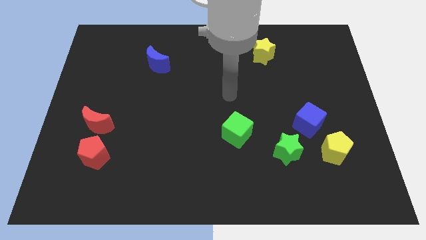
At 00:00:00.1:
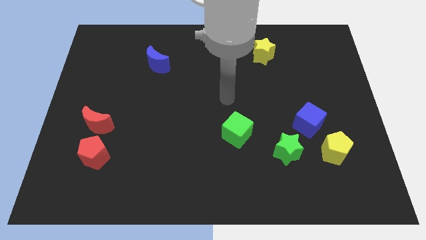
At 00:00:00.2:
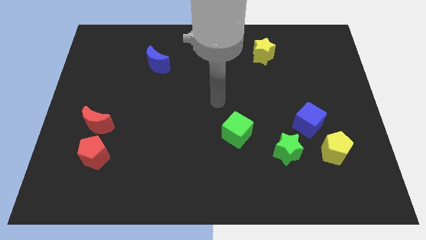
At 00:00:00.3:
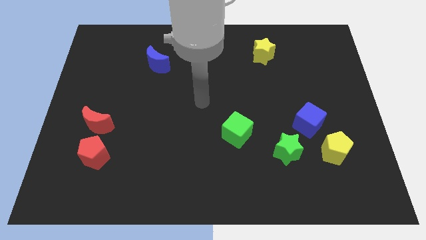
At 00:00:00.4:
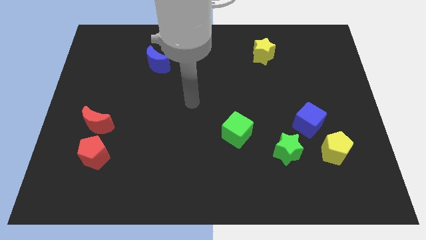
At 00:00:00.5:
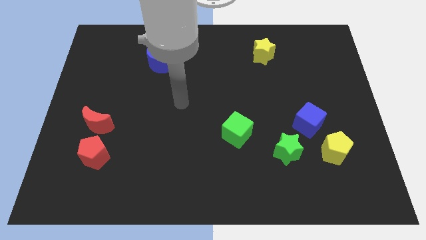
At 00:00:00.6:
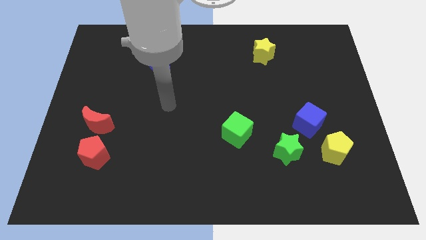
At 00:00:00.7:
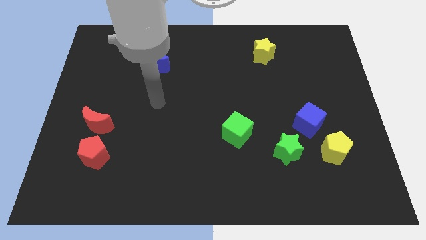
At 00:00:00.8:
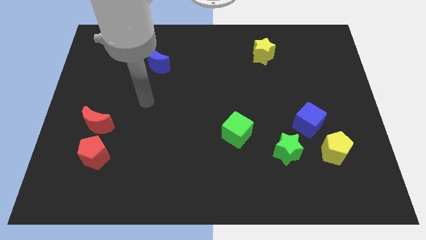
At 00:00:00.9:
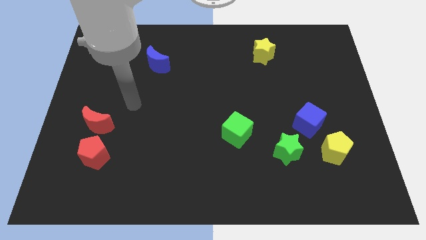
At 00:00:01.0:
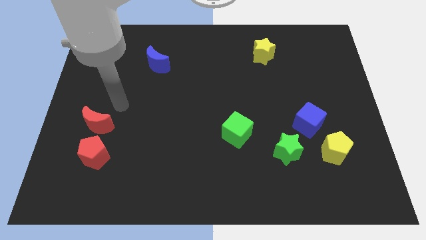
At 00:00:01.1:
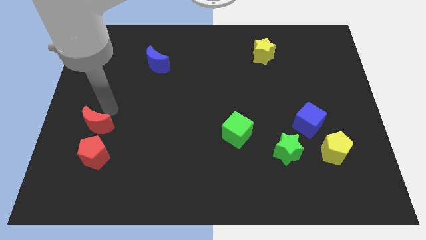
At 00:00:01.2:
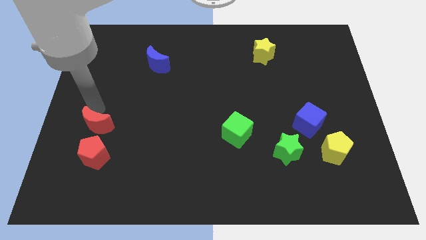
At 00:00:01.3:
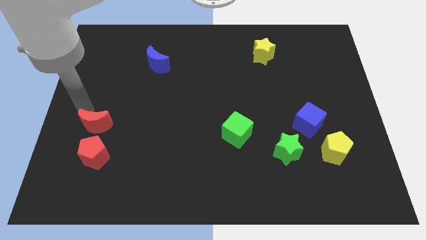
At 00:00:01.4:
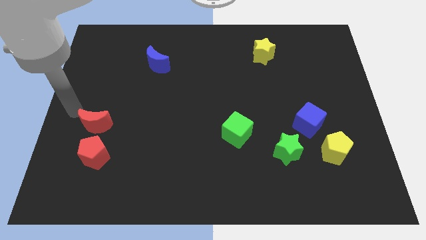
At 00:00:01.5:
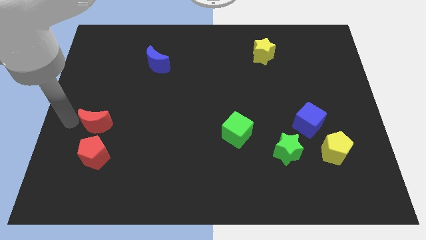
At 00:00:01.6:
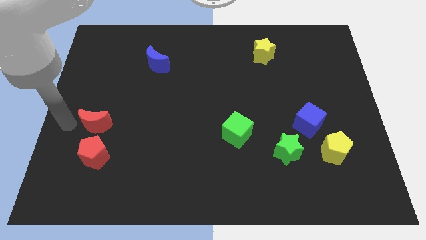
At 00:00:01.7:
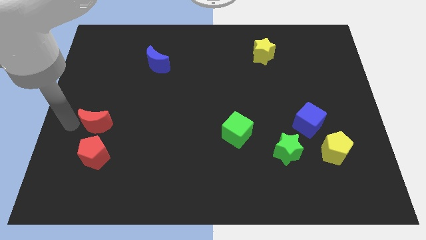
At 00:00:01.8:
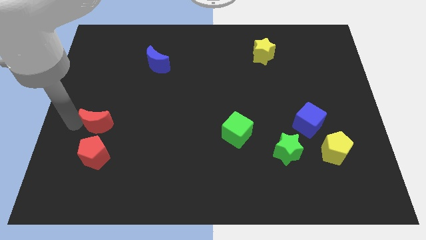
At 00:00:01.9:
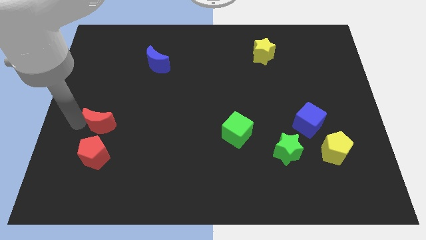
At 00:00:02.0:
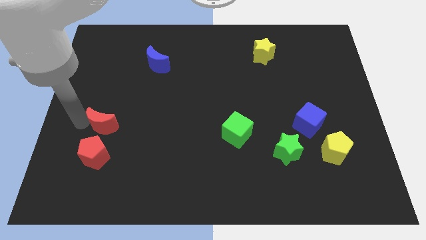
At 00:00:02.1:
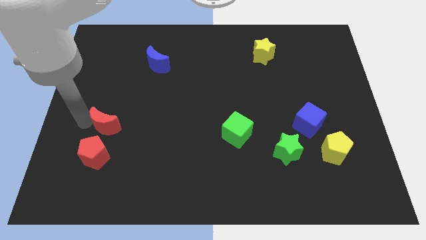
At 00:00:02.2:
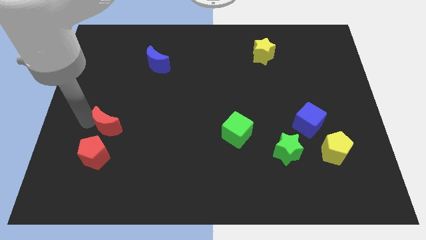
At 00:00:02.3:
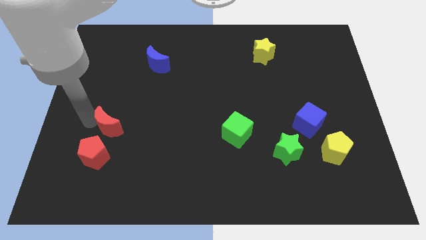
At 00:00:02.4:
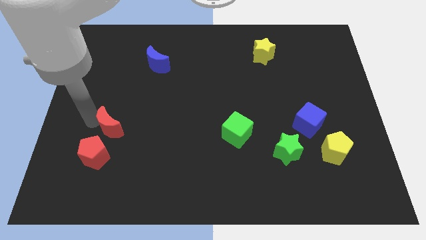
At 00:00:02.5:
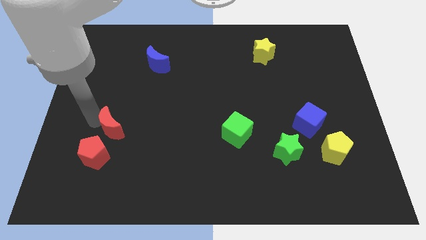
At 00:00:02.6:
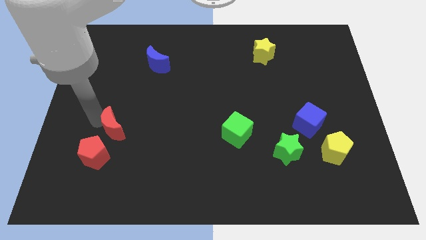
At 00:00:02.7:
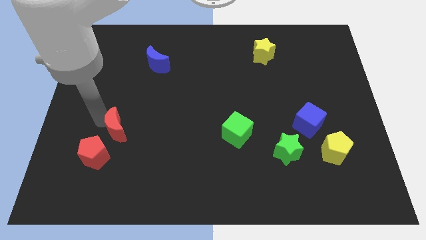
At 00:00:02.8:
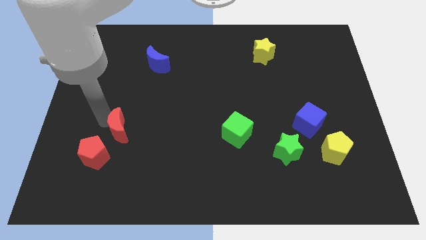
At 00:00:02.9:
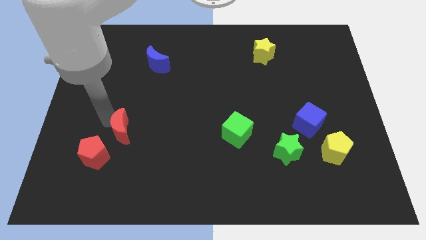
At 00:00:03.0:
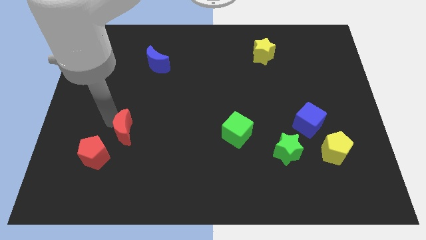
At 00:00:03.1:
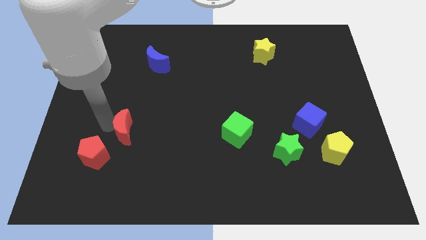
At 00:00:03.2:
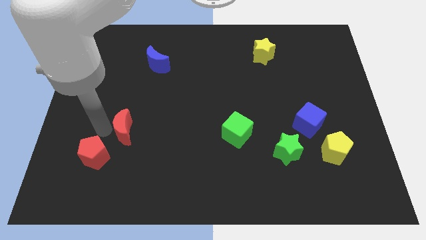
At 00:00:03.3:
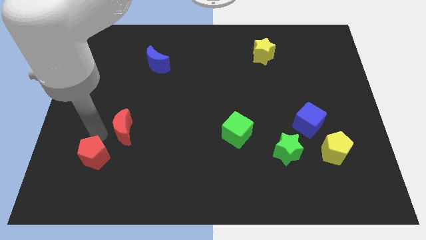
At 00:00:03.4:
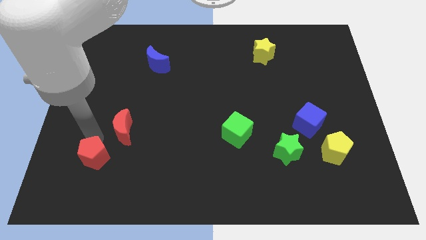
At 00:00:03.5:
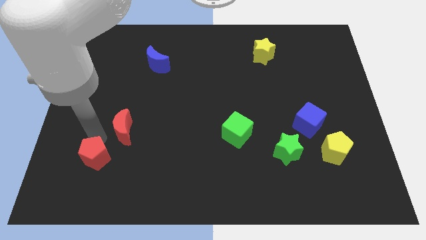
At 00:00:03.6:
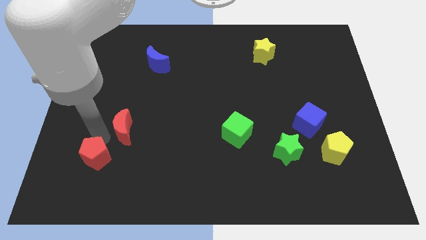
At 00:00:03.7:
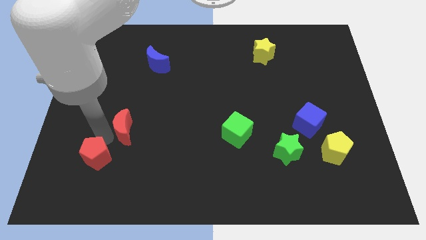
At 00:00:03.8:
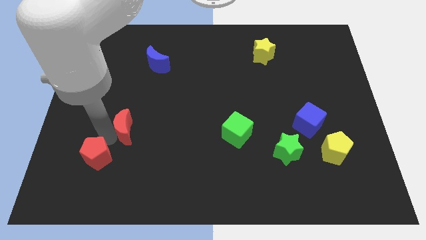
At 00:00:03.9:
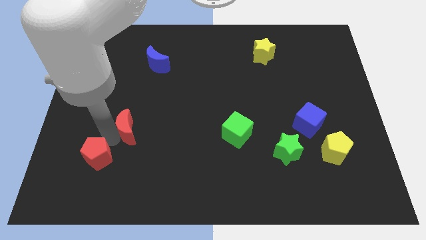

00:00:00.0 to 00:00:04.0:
slide the red moon to the right a little bit

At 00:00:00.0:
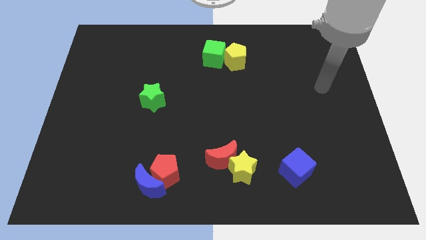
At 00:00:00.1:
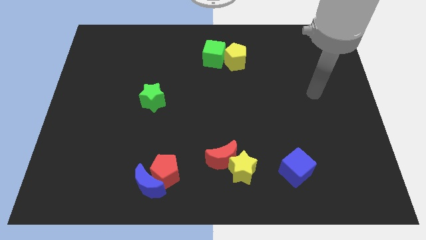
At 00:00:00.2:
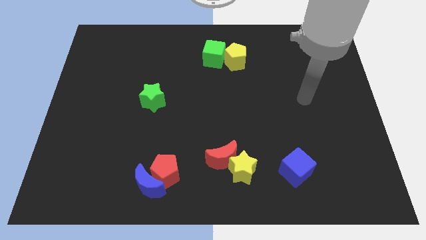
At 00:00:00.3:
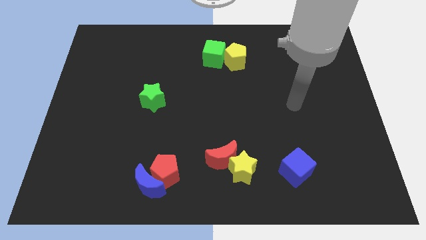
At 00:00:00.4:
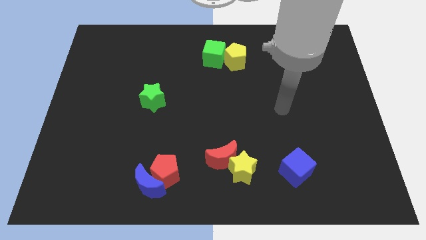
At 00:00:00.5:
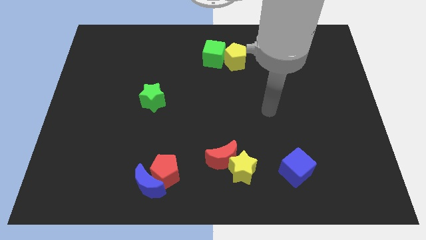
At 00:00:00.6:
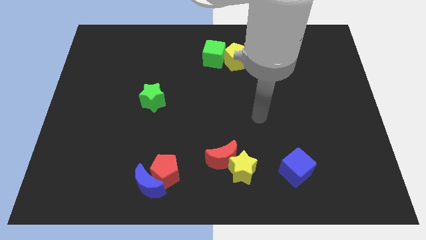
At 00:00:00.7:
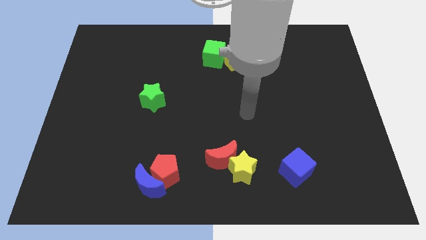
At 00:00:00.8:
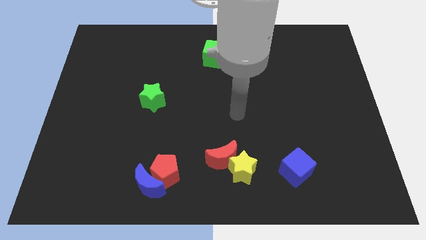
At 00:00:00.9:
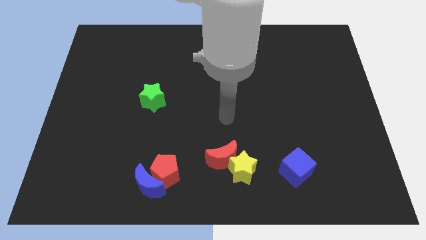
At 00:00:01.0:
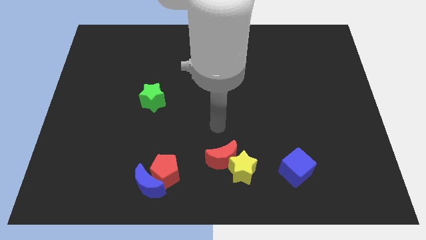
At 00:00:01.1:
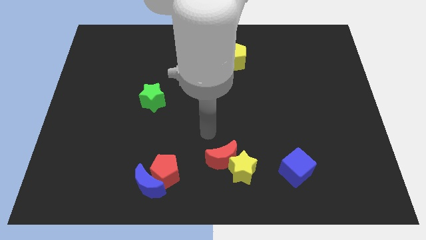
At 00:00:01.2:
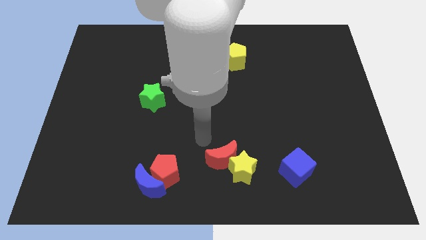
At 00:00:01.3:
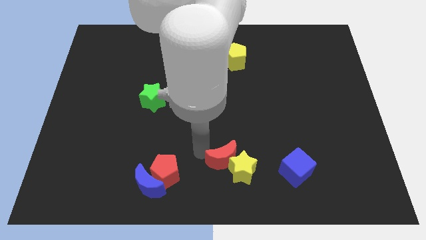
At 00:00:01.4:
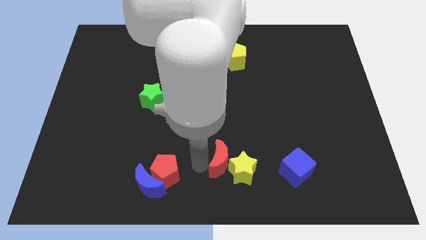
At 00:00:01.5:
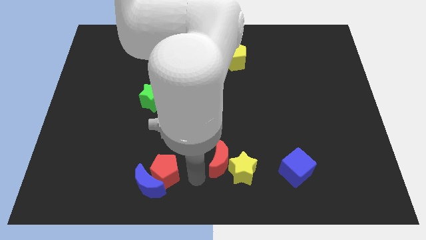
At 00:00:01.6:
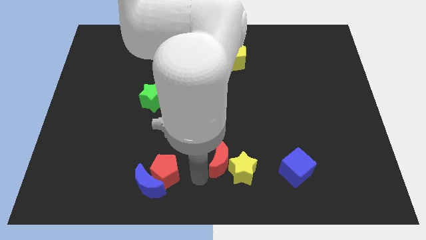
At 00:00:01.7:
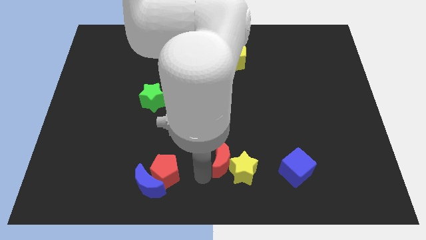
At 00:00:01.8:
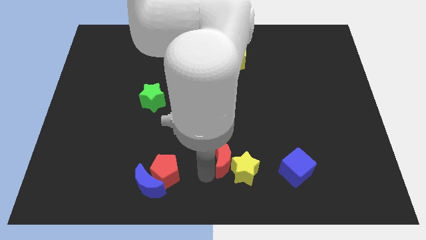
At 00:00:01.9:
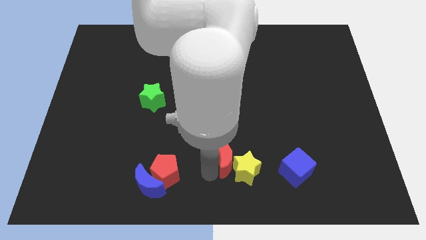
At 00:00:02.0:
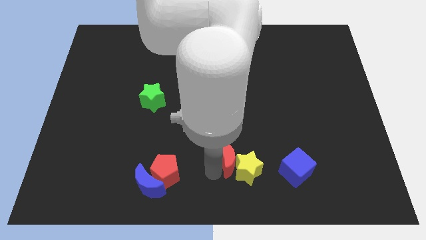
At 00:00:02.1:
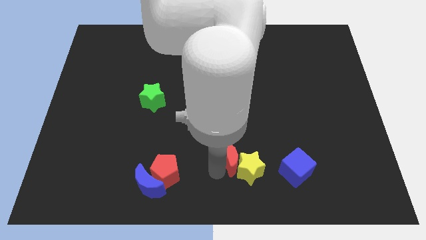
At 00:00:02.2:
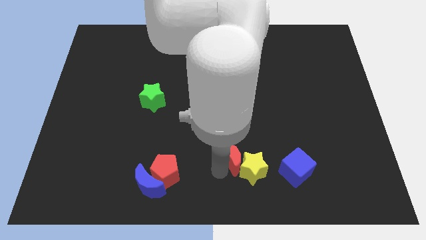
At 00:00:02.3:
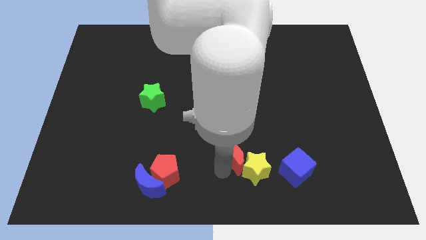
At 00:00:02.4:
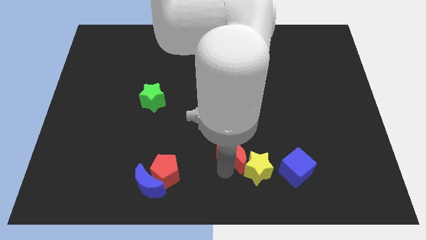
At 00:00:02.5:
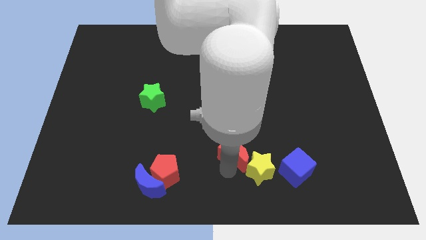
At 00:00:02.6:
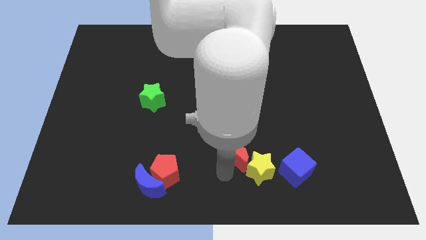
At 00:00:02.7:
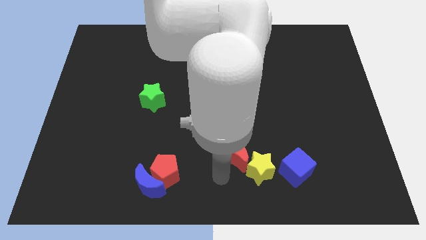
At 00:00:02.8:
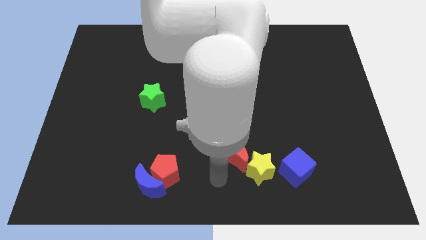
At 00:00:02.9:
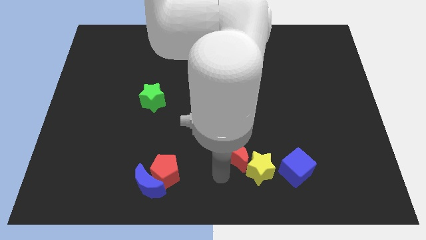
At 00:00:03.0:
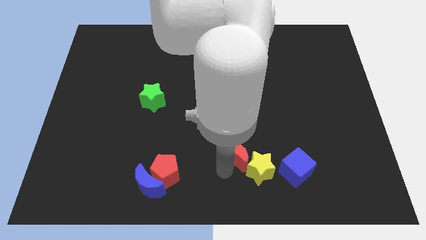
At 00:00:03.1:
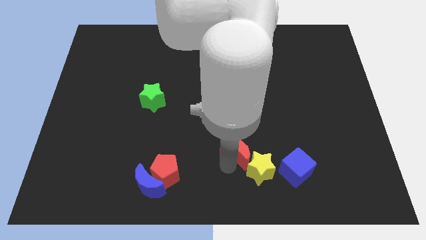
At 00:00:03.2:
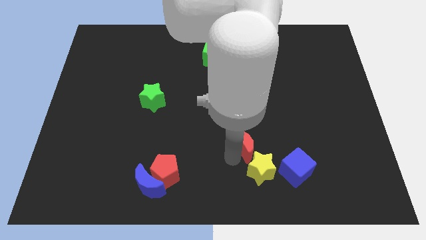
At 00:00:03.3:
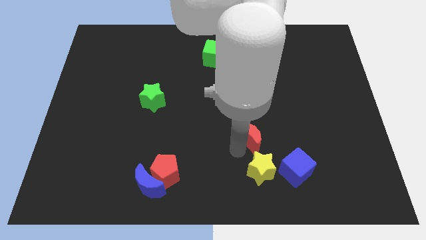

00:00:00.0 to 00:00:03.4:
move the red moon upwards and then to the right a little bit

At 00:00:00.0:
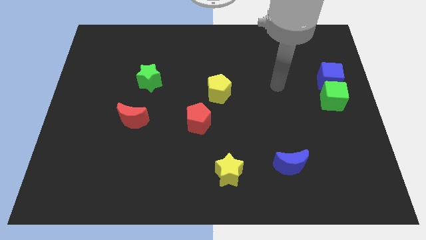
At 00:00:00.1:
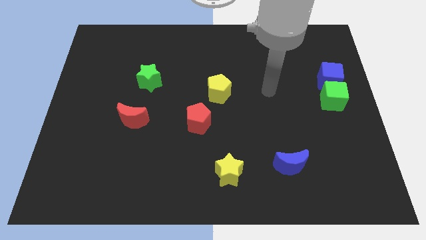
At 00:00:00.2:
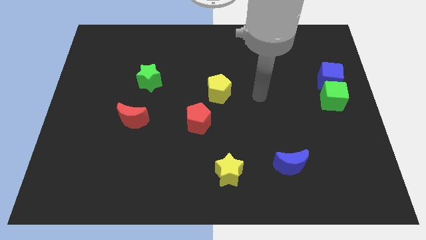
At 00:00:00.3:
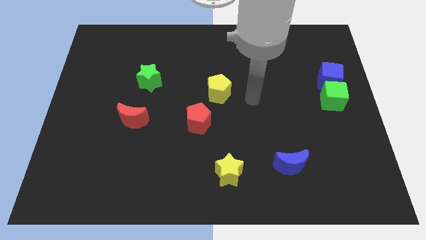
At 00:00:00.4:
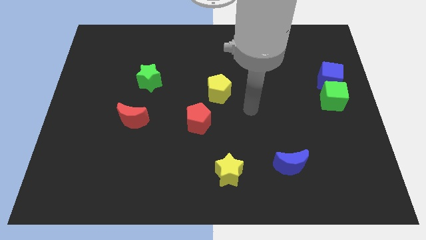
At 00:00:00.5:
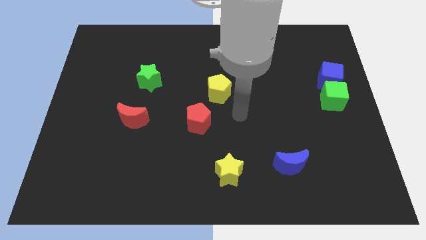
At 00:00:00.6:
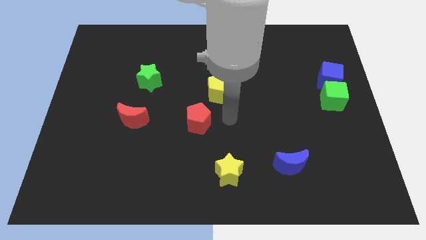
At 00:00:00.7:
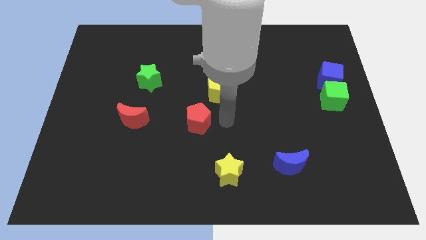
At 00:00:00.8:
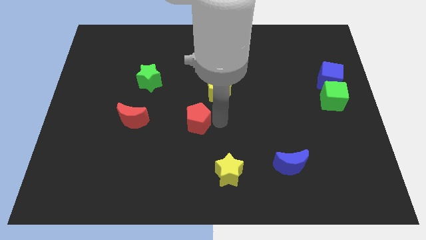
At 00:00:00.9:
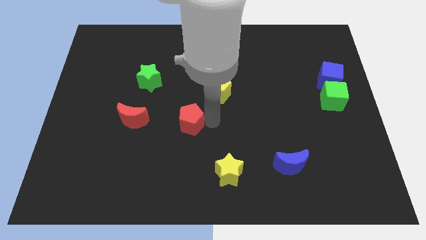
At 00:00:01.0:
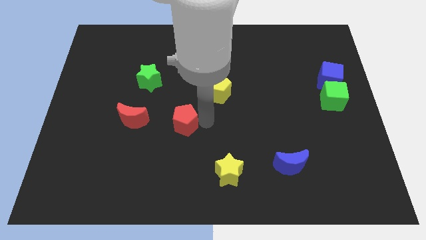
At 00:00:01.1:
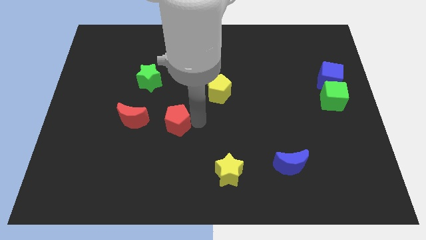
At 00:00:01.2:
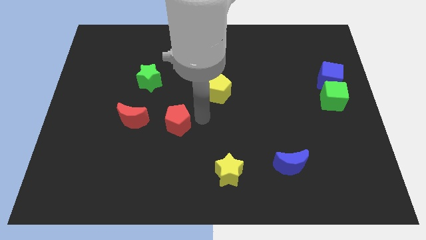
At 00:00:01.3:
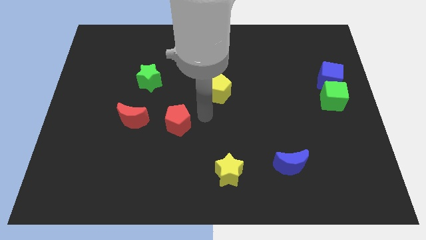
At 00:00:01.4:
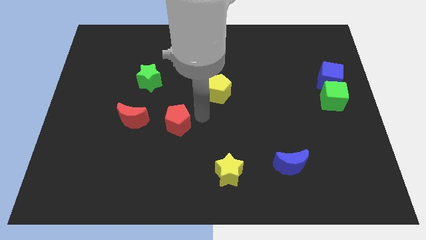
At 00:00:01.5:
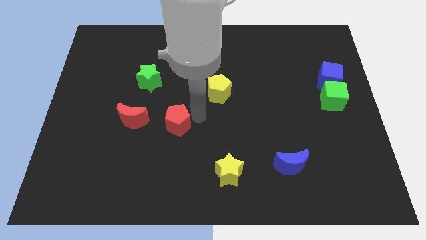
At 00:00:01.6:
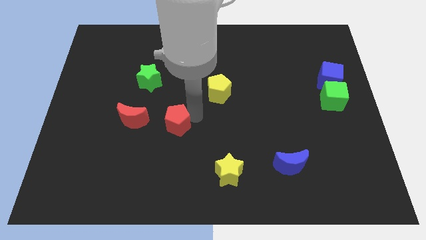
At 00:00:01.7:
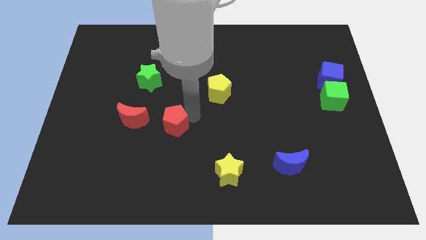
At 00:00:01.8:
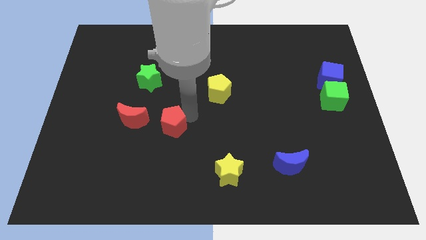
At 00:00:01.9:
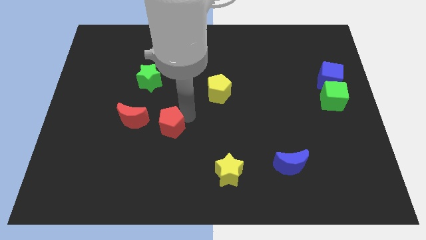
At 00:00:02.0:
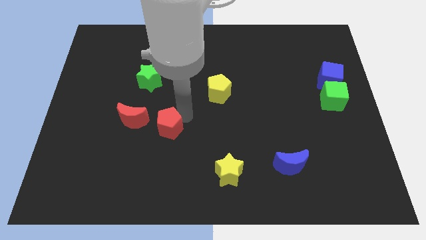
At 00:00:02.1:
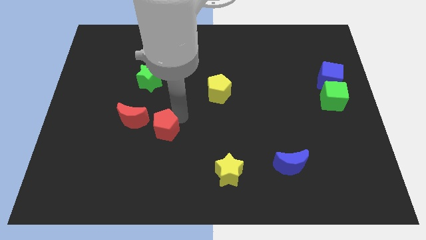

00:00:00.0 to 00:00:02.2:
slide the red pentagon to the left a bit
